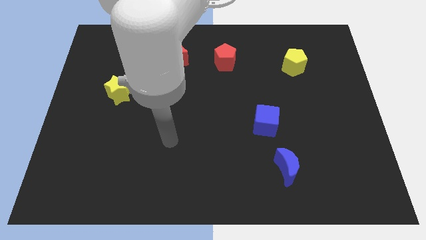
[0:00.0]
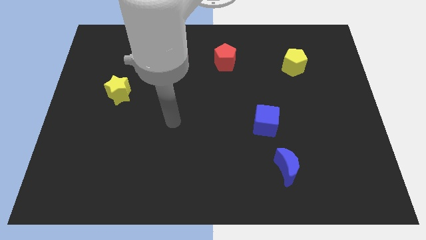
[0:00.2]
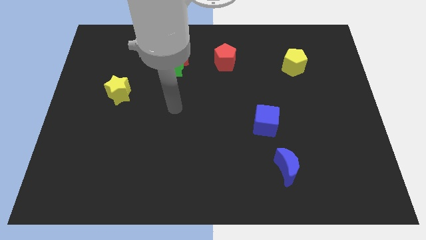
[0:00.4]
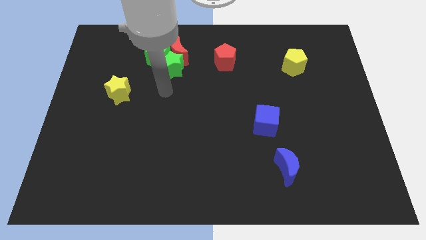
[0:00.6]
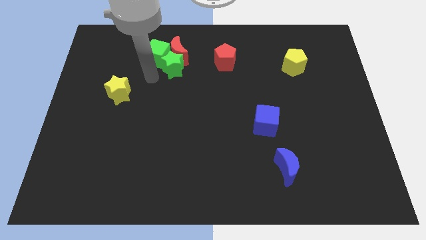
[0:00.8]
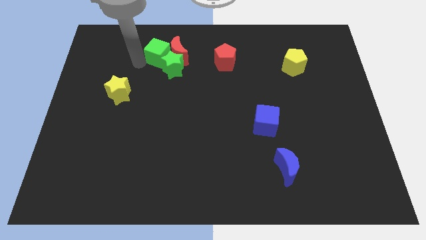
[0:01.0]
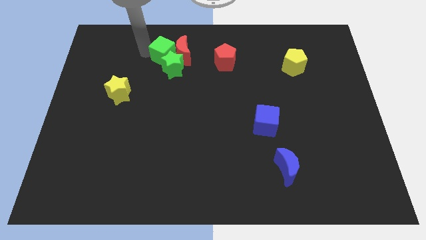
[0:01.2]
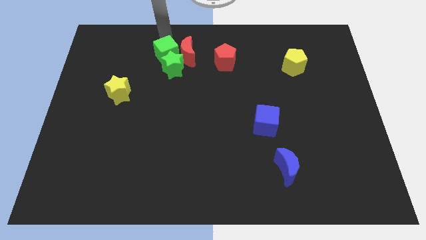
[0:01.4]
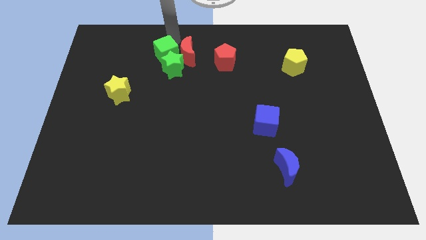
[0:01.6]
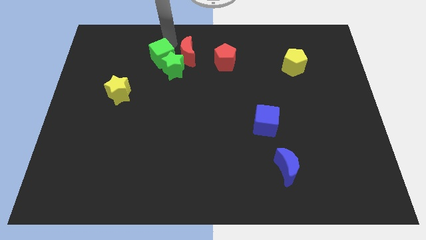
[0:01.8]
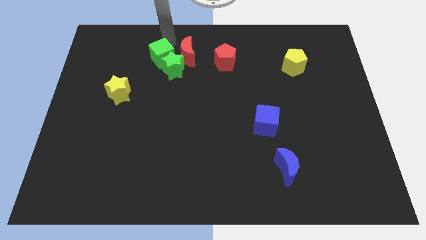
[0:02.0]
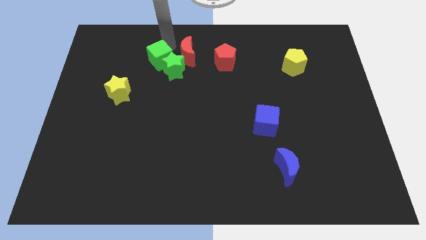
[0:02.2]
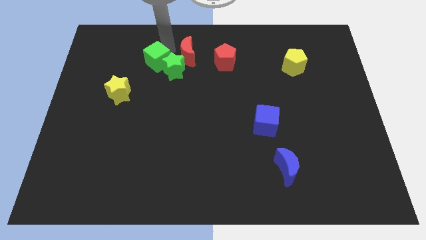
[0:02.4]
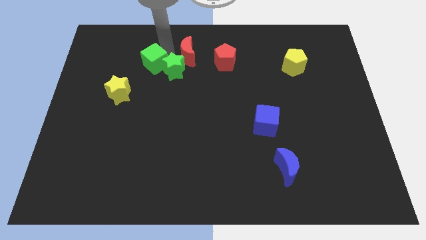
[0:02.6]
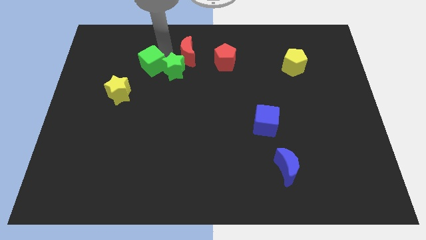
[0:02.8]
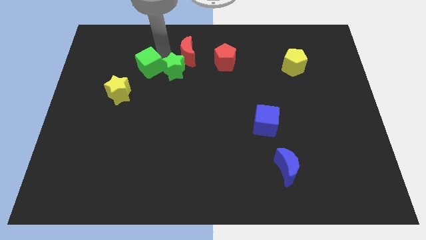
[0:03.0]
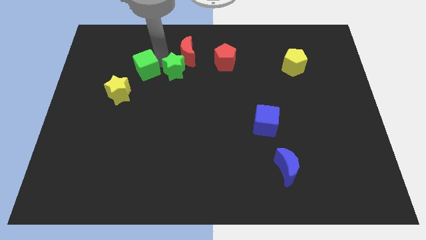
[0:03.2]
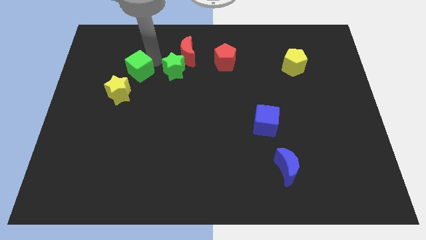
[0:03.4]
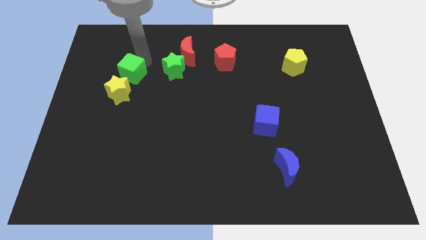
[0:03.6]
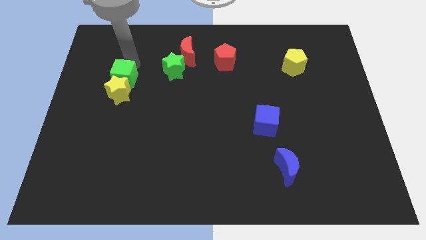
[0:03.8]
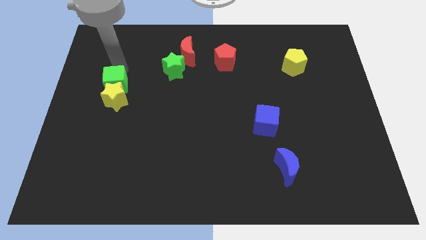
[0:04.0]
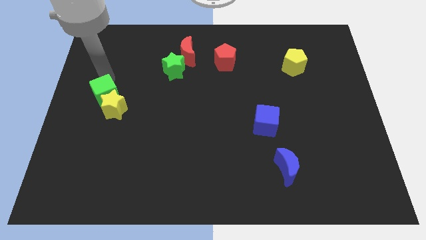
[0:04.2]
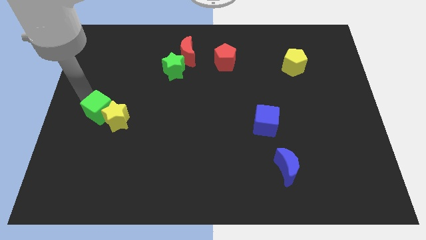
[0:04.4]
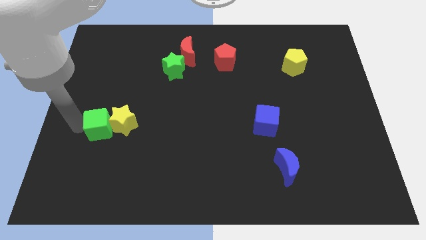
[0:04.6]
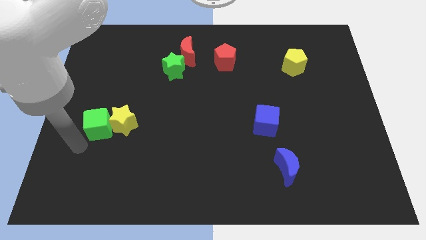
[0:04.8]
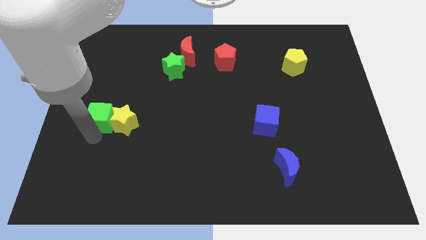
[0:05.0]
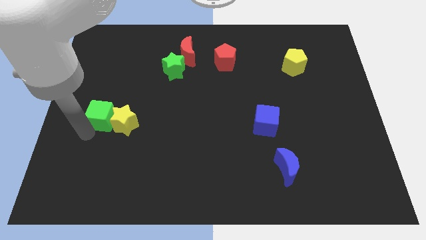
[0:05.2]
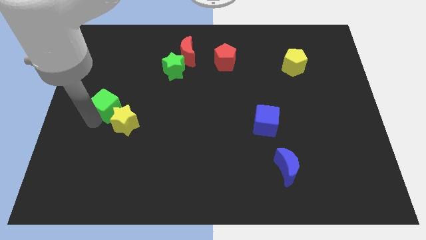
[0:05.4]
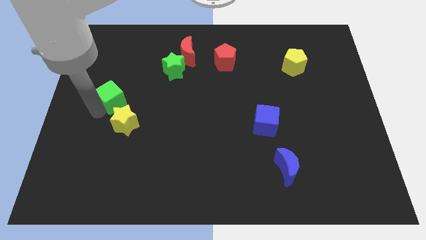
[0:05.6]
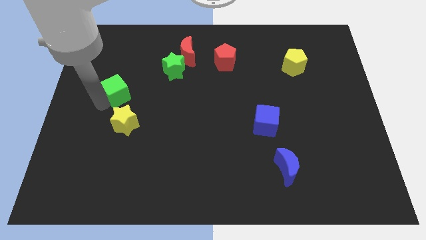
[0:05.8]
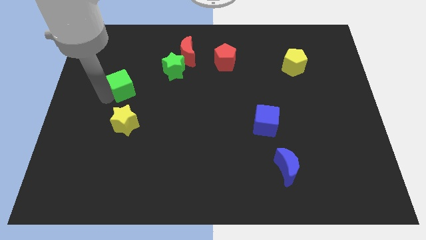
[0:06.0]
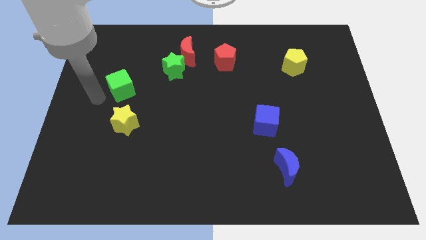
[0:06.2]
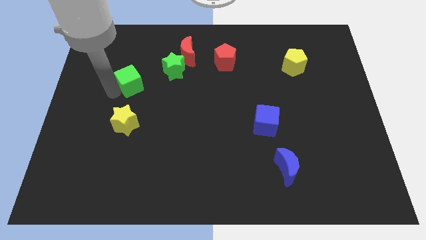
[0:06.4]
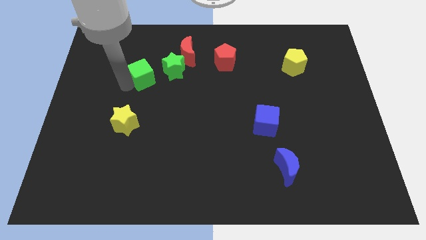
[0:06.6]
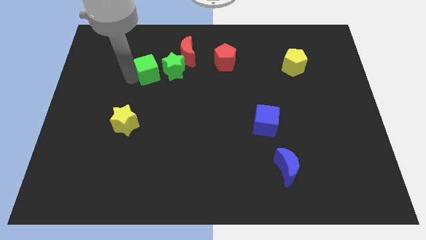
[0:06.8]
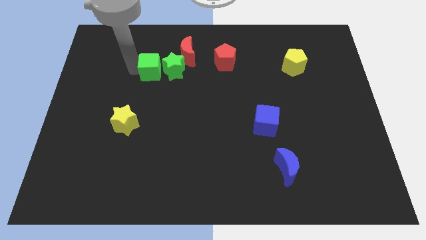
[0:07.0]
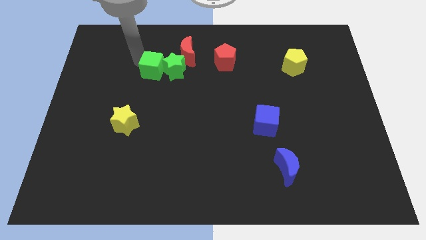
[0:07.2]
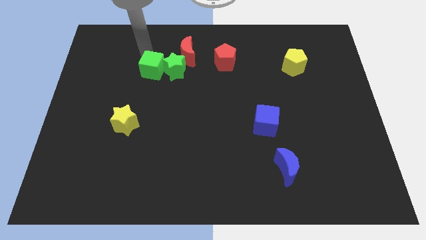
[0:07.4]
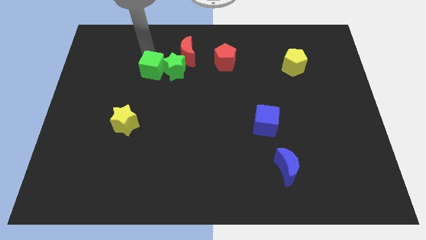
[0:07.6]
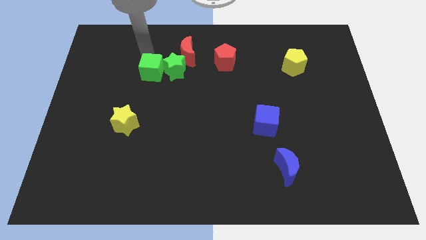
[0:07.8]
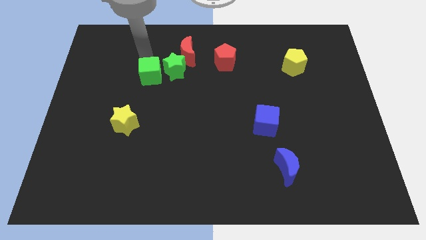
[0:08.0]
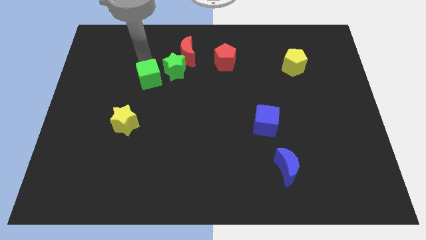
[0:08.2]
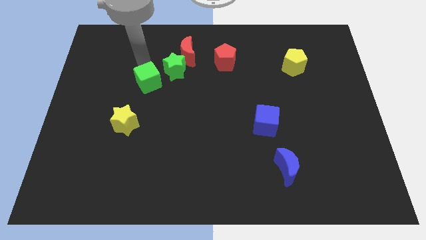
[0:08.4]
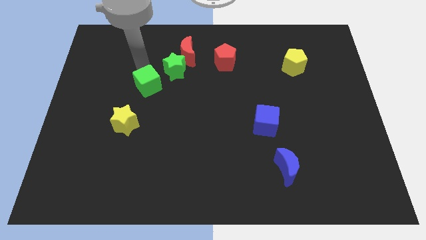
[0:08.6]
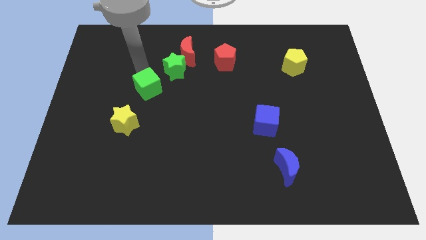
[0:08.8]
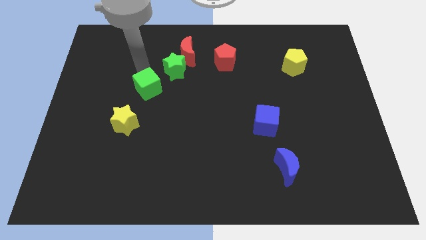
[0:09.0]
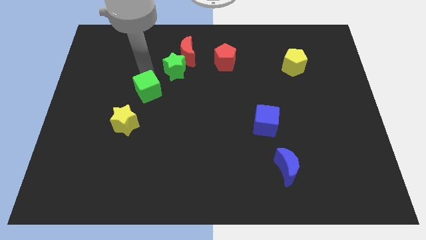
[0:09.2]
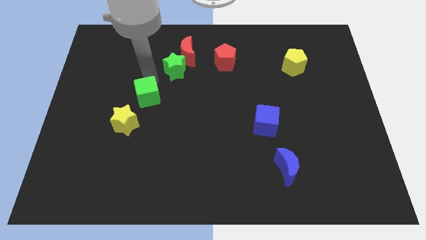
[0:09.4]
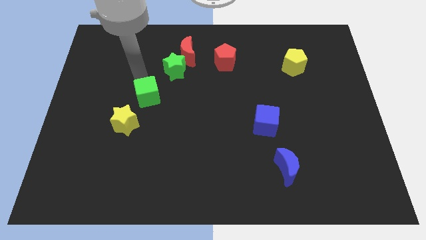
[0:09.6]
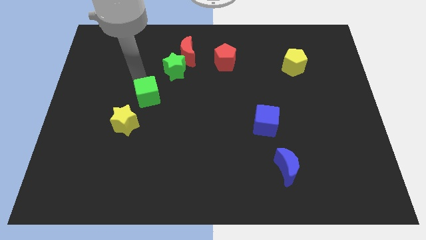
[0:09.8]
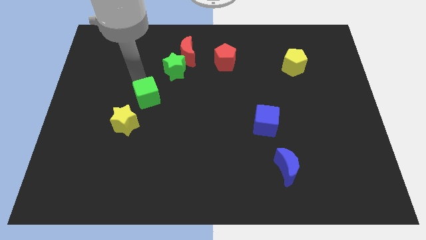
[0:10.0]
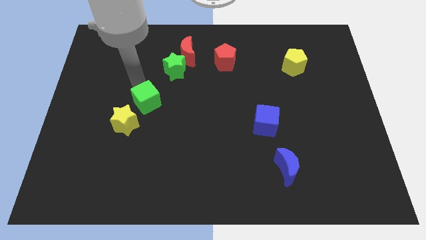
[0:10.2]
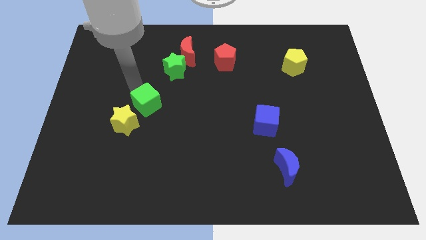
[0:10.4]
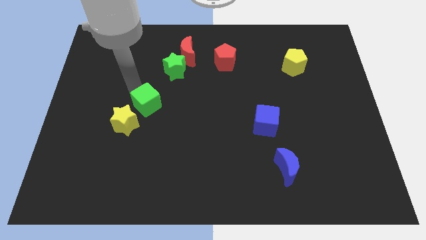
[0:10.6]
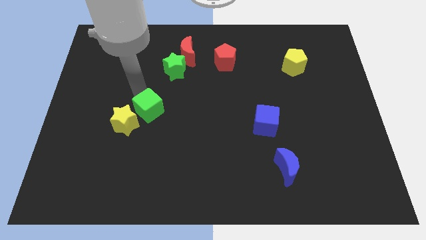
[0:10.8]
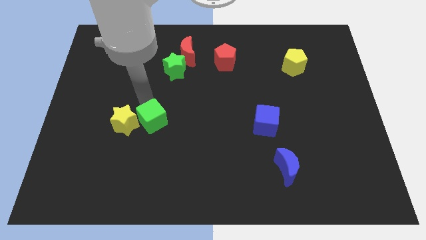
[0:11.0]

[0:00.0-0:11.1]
slide the green cube down

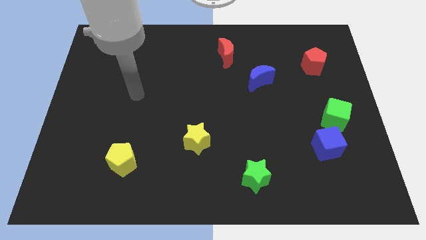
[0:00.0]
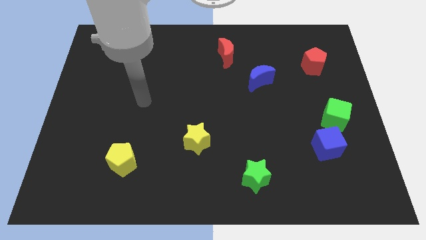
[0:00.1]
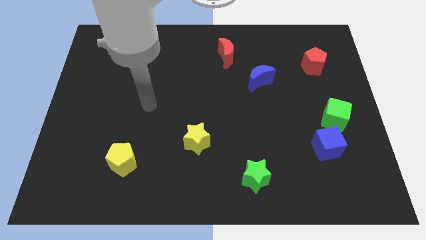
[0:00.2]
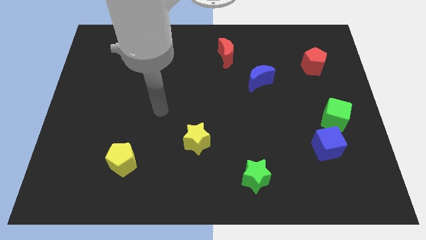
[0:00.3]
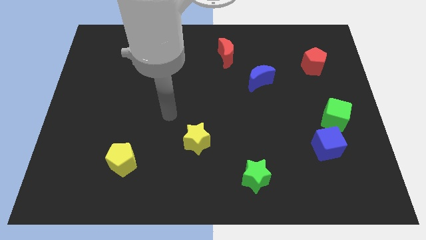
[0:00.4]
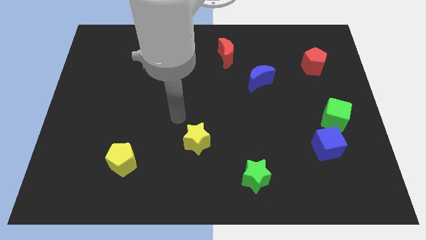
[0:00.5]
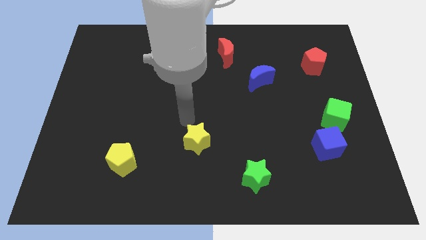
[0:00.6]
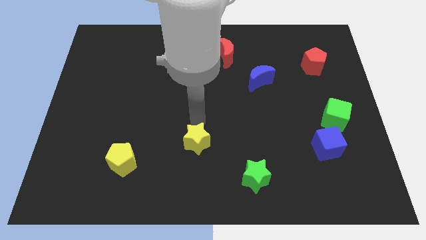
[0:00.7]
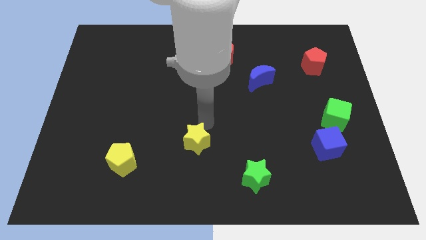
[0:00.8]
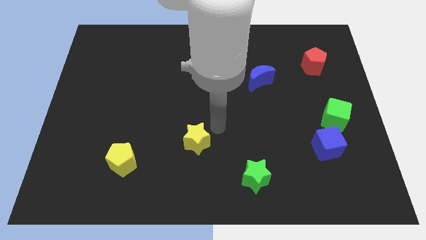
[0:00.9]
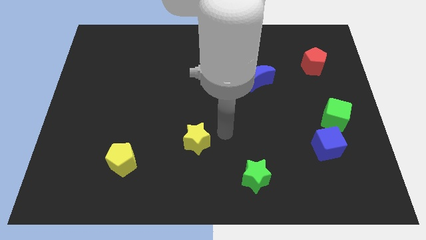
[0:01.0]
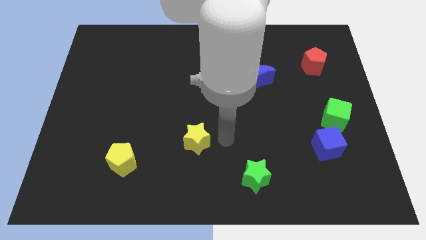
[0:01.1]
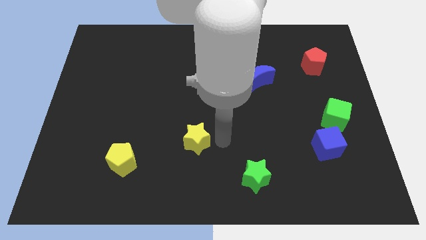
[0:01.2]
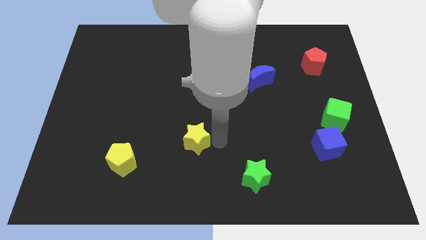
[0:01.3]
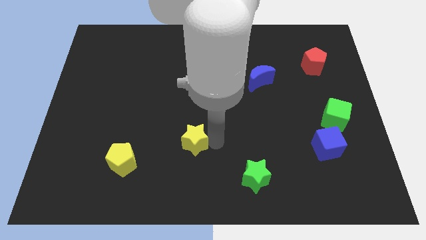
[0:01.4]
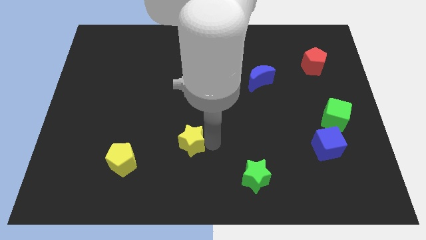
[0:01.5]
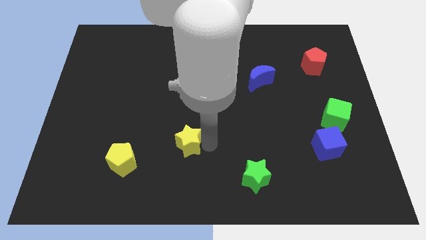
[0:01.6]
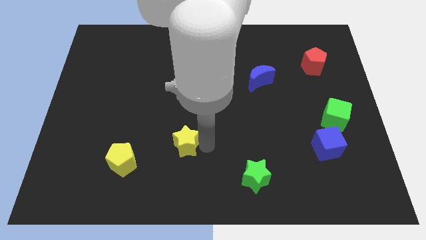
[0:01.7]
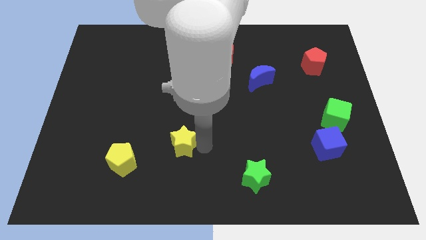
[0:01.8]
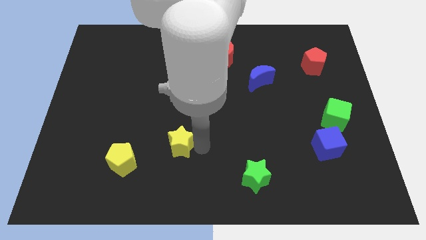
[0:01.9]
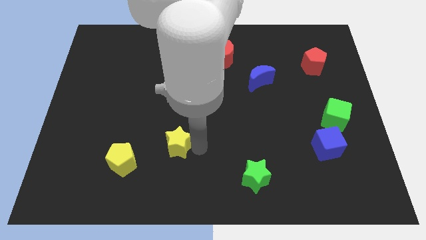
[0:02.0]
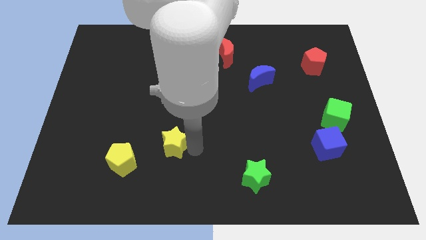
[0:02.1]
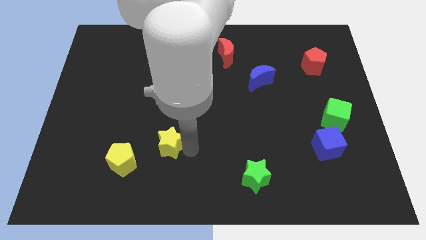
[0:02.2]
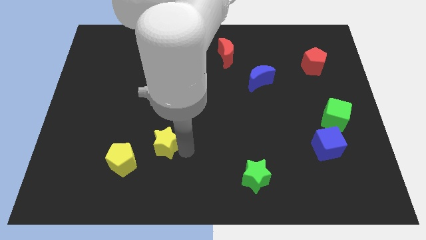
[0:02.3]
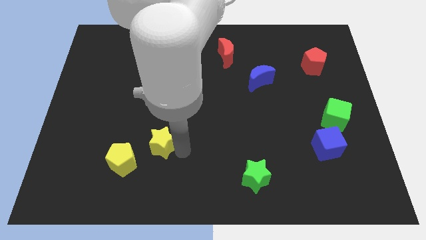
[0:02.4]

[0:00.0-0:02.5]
slide the yellow star somewhat to the left
